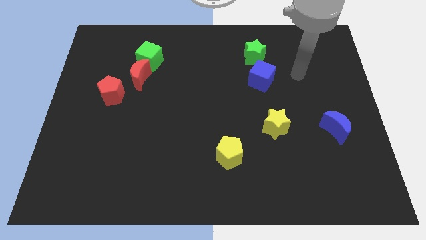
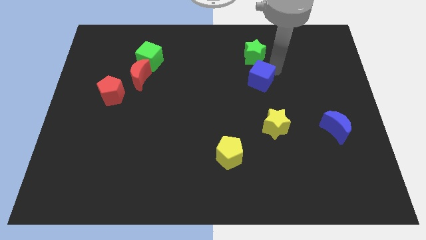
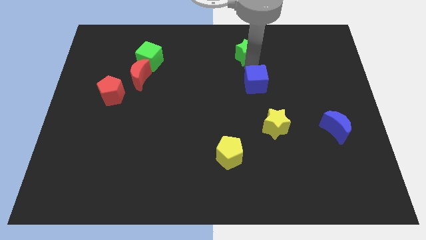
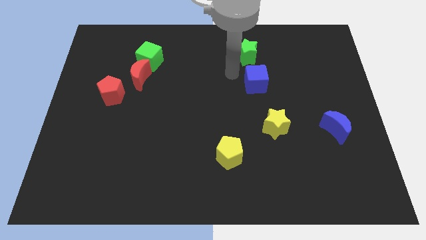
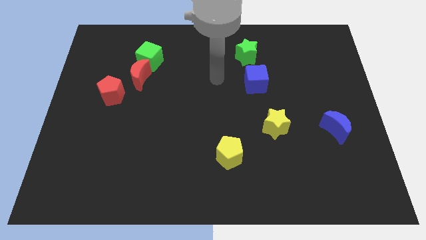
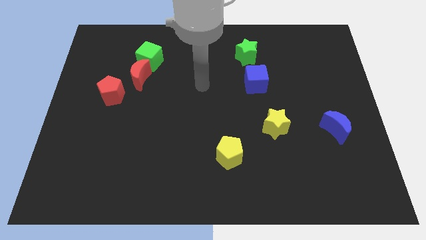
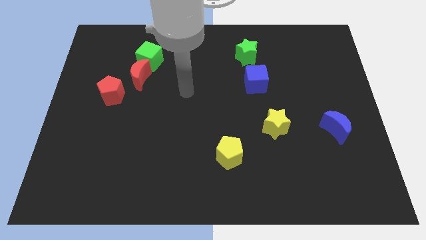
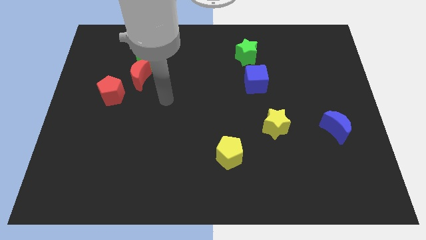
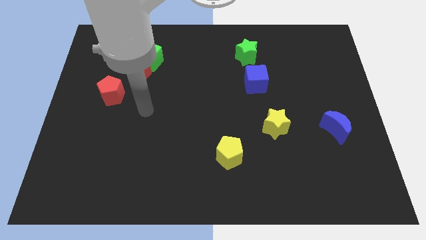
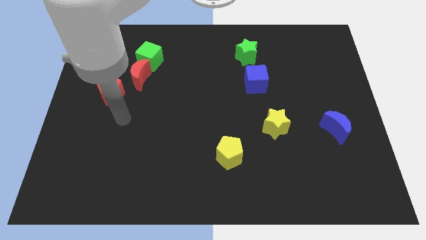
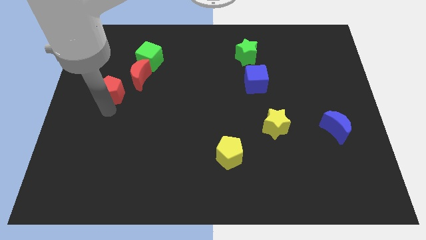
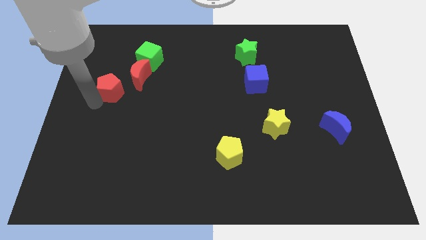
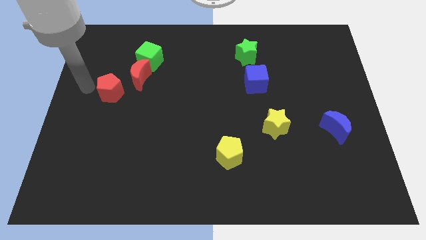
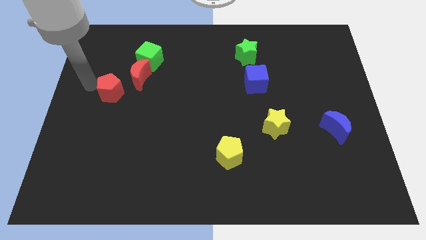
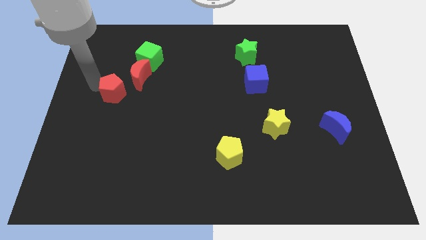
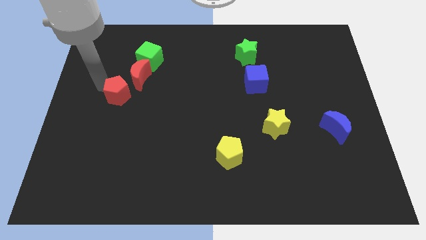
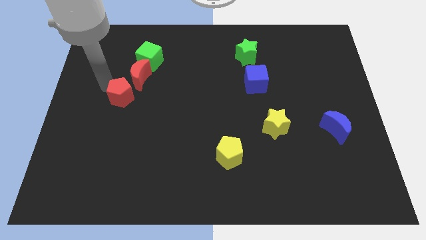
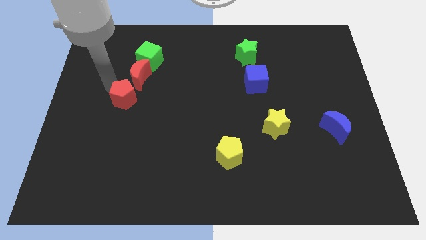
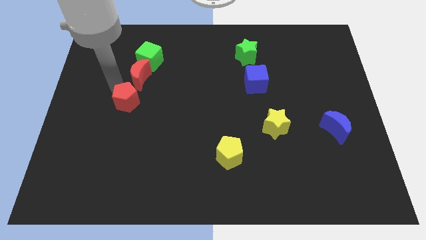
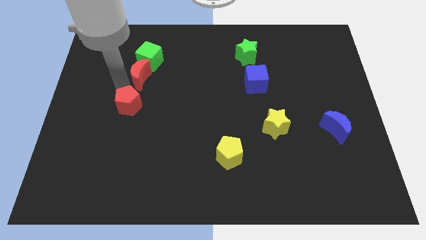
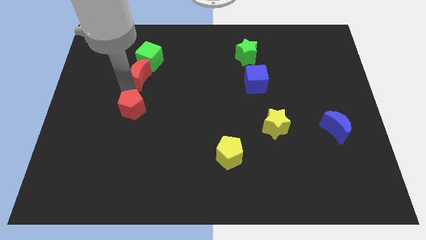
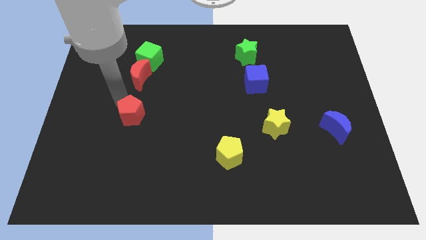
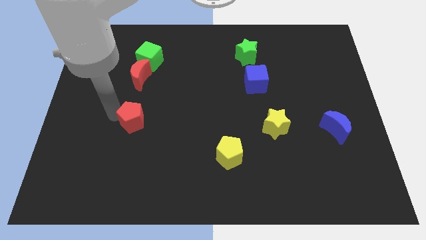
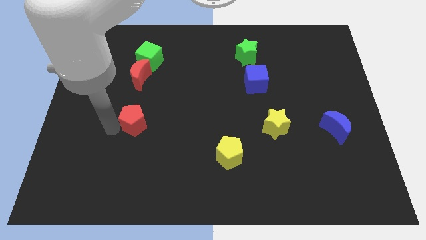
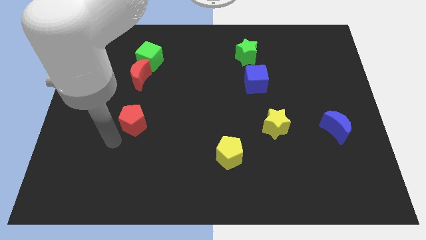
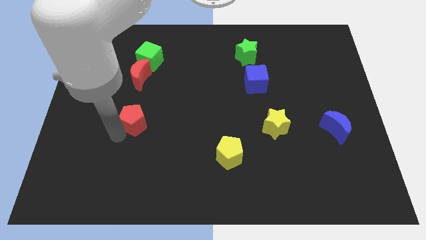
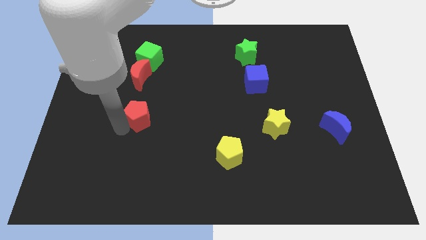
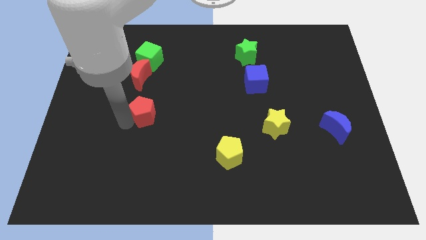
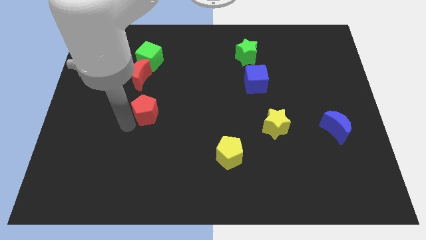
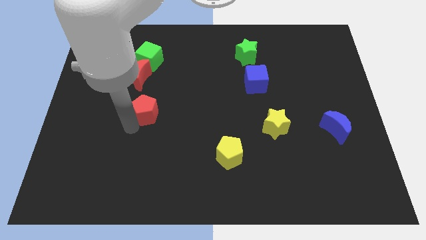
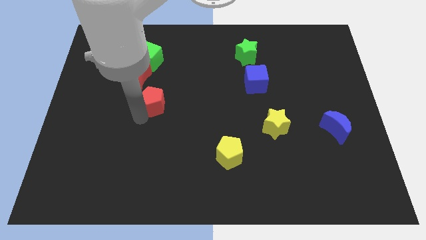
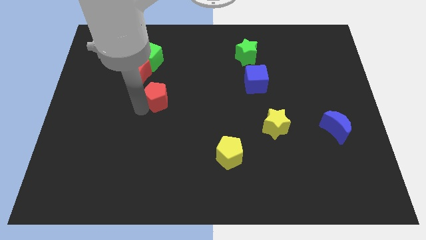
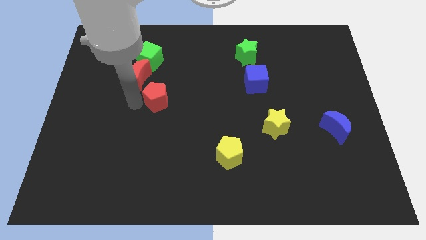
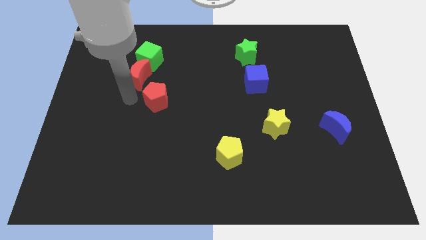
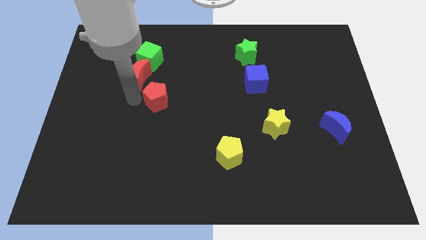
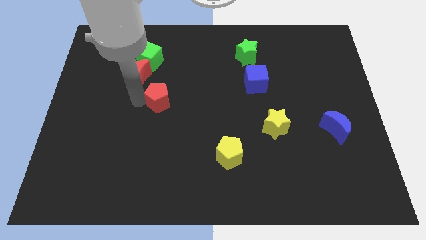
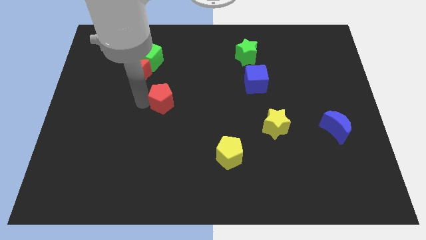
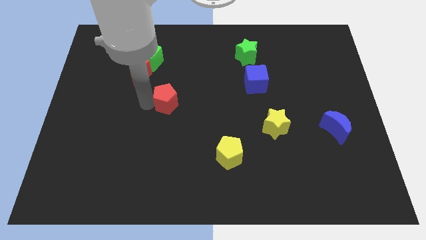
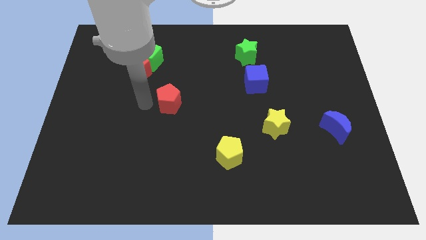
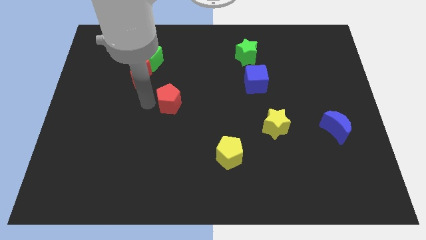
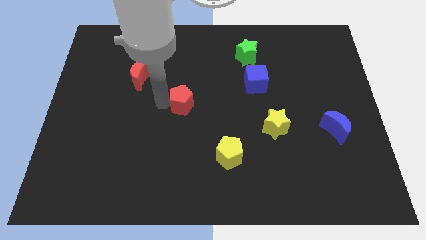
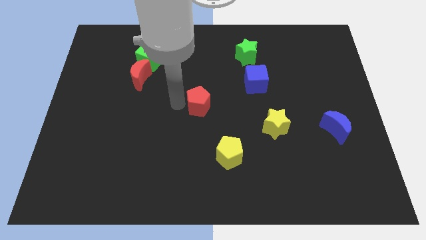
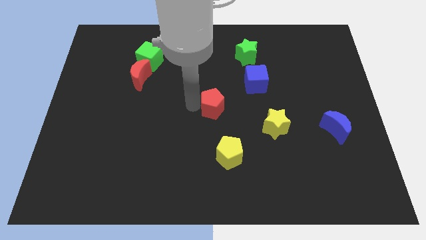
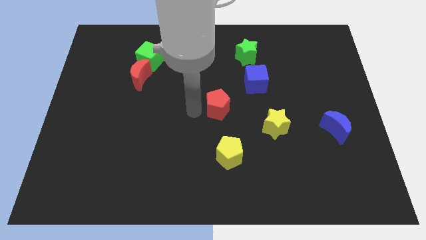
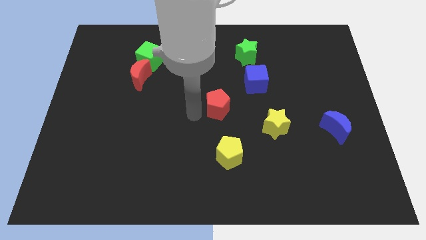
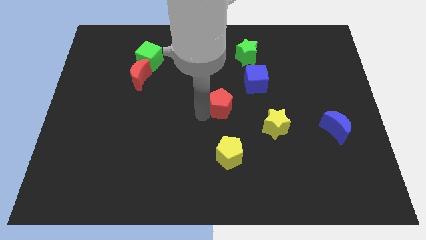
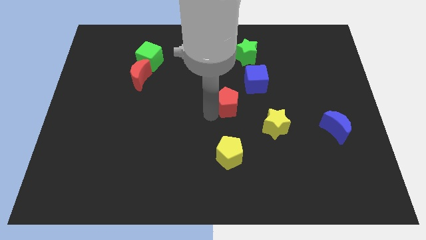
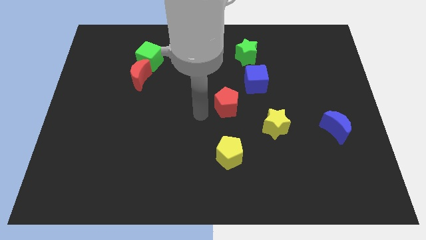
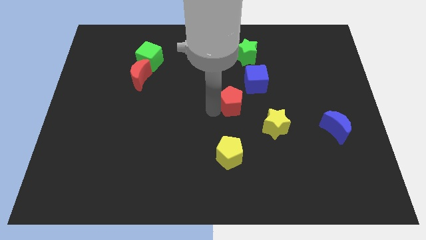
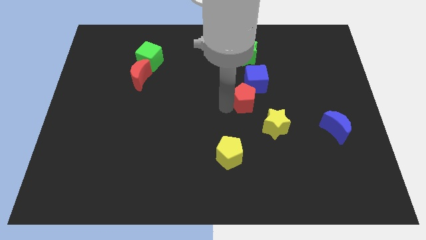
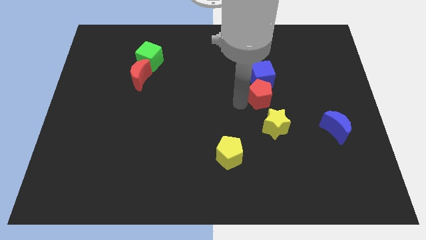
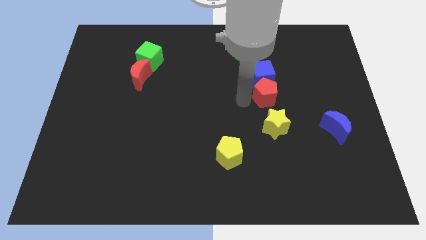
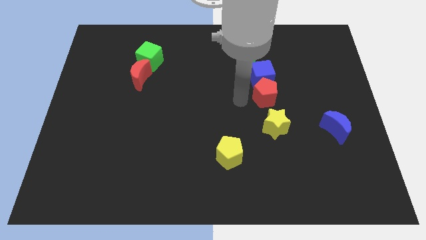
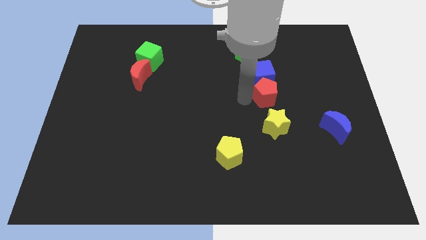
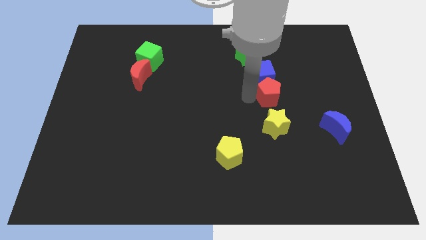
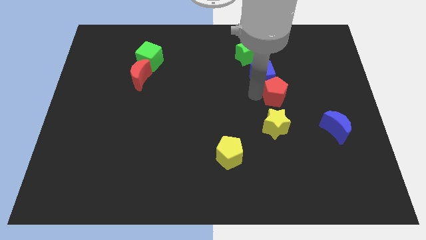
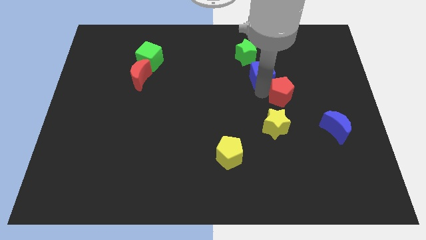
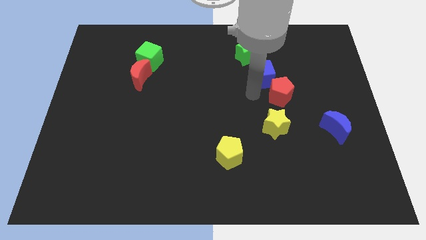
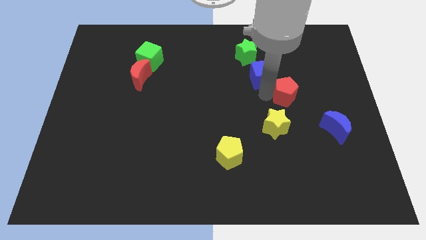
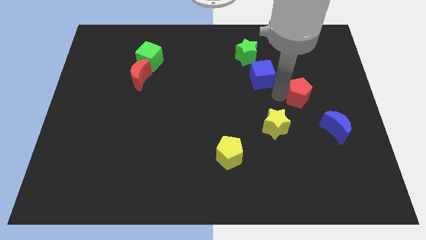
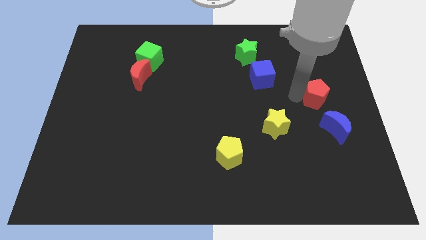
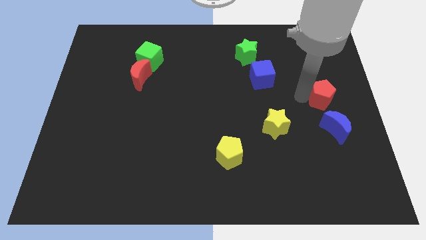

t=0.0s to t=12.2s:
slide the red pentagon to the right side of the board

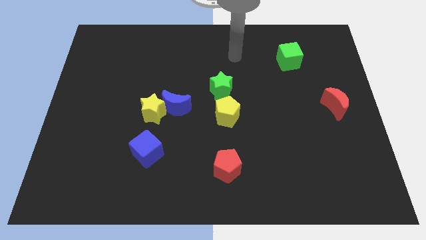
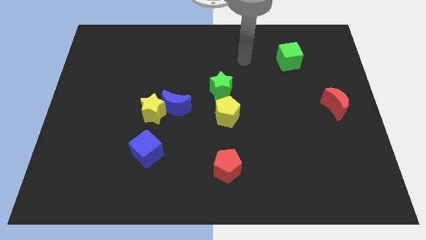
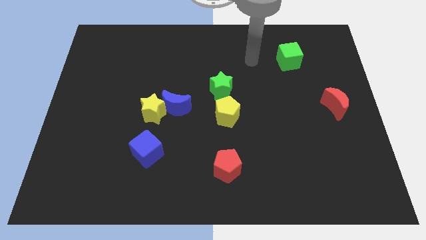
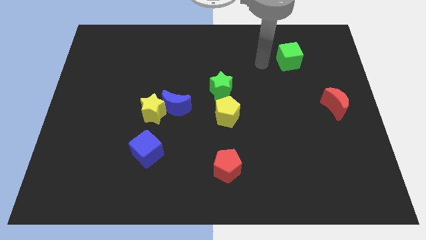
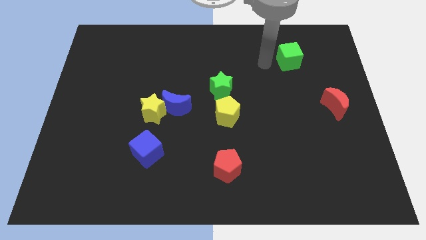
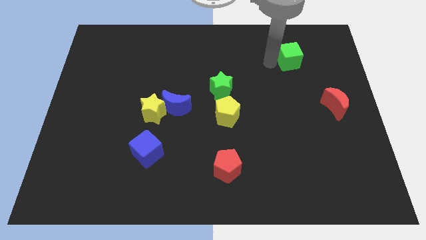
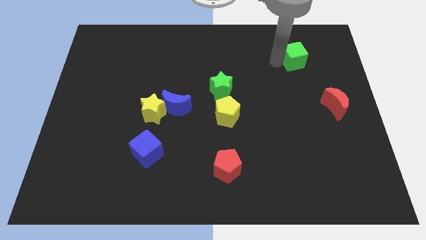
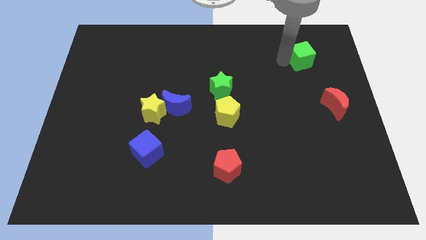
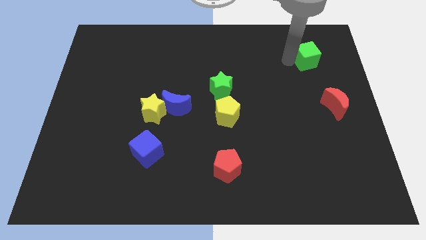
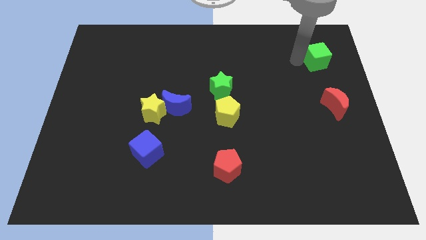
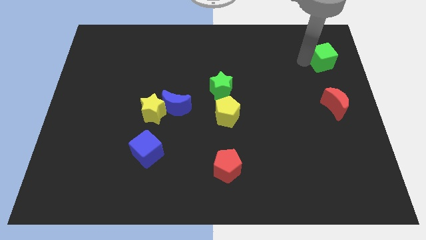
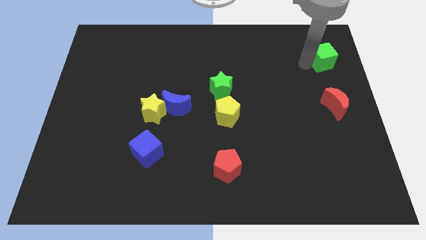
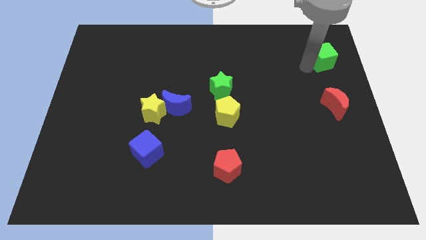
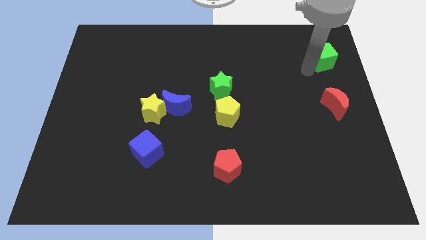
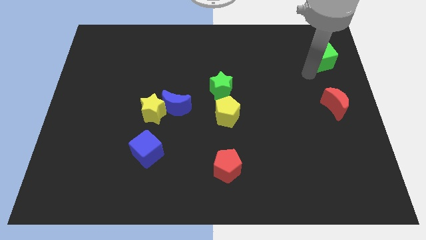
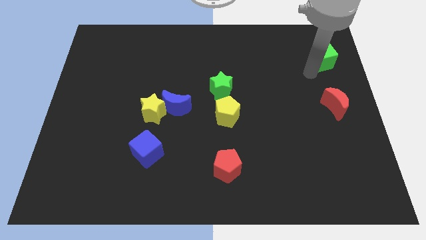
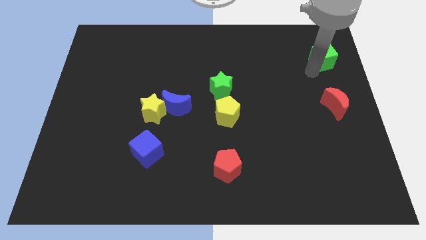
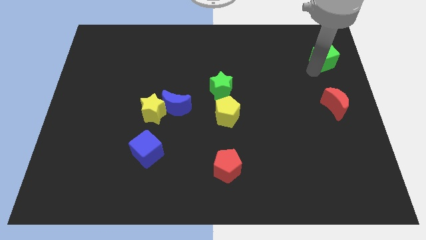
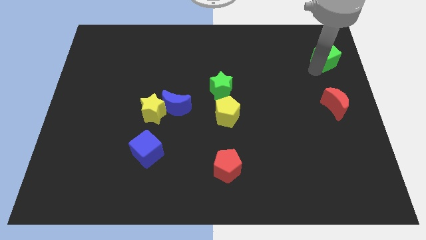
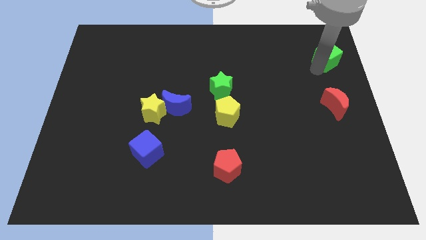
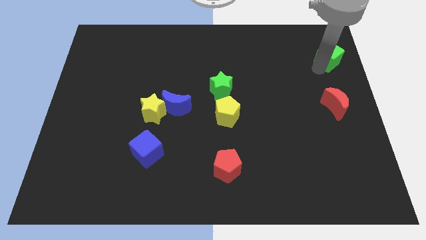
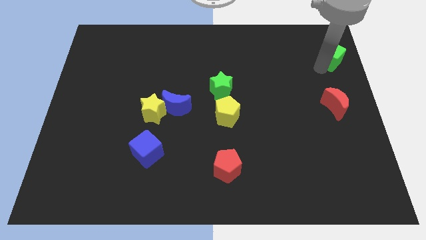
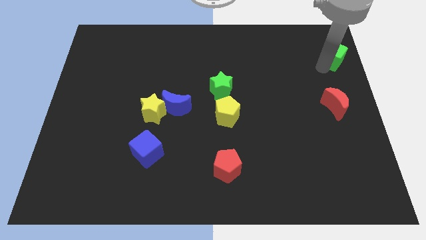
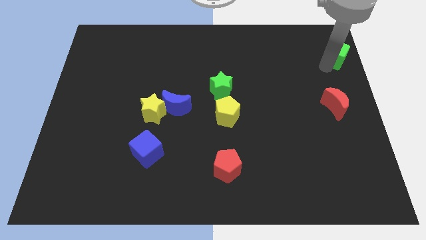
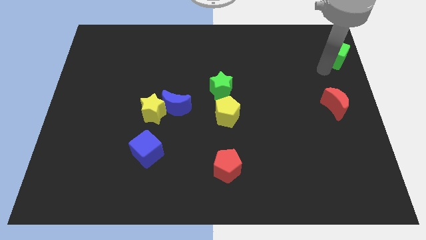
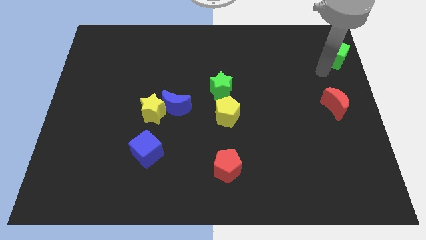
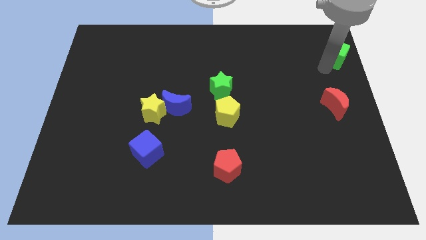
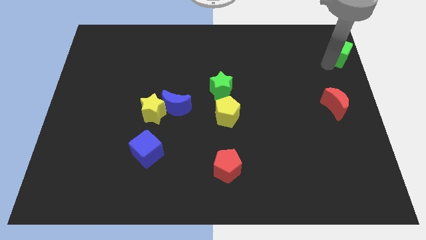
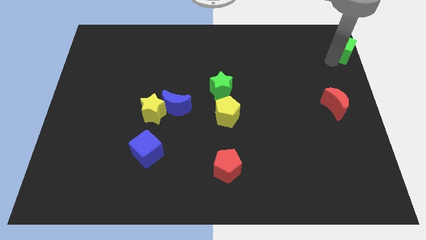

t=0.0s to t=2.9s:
move the green cube to the top right of the board
